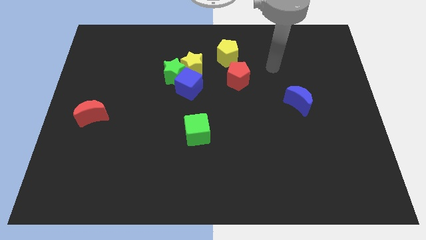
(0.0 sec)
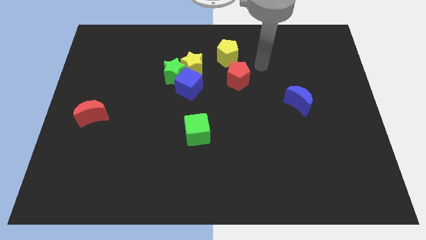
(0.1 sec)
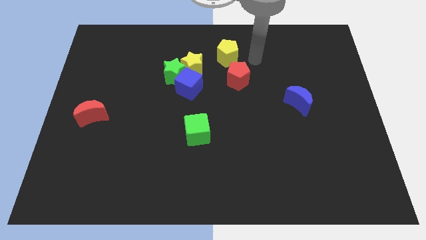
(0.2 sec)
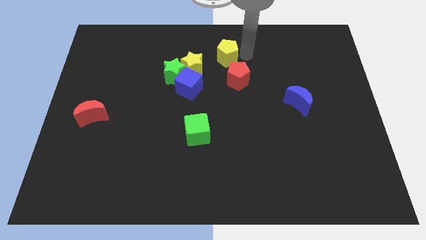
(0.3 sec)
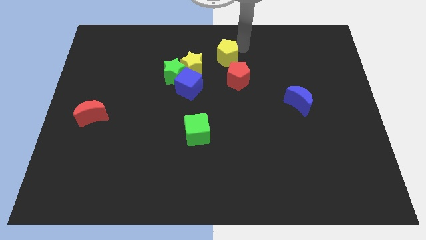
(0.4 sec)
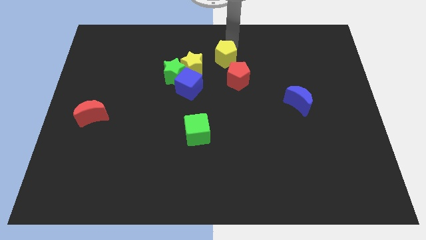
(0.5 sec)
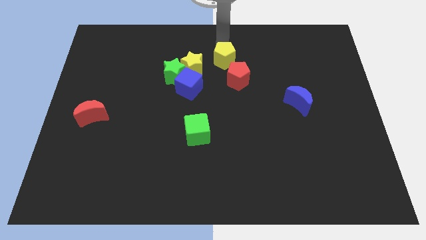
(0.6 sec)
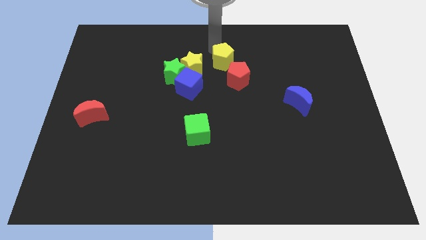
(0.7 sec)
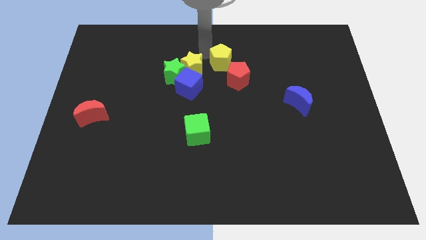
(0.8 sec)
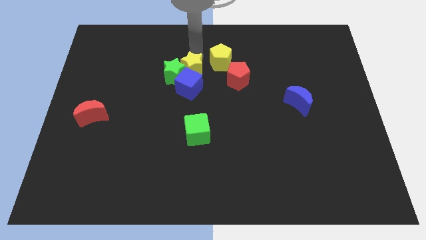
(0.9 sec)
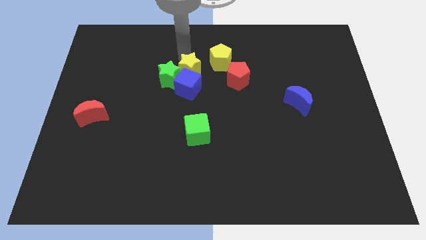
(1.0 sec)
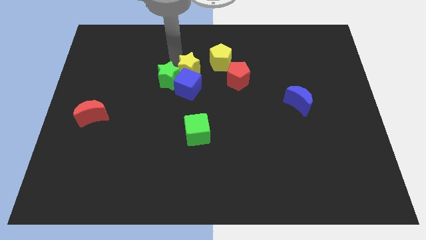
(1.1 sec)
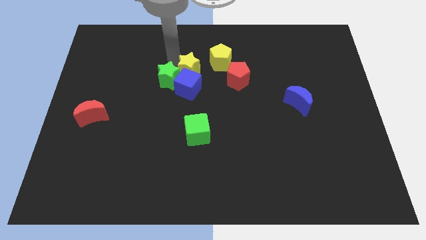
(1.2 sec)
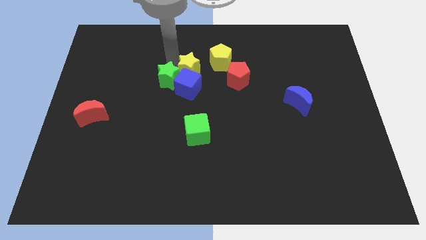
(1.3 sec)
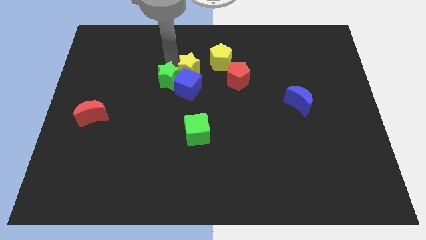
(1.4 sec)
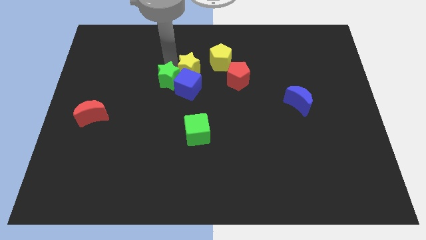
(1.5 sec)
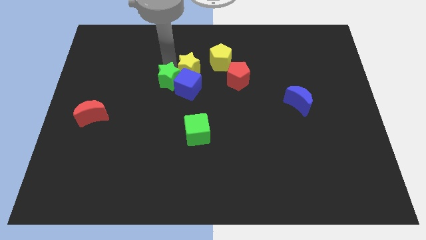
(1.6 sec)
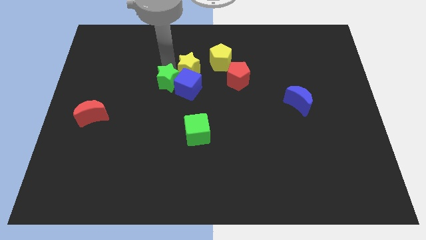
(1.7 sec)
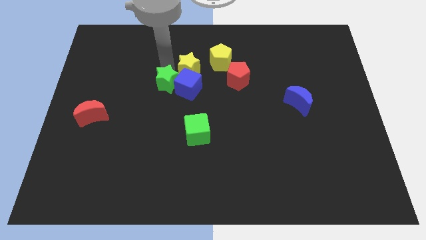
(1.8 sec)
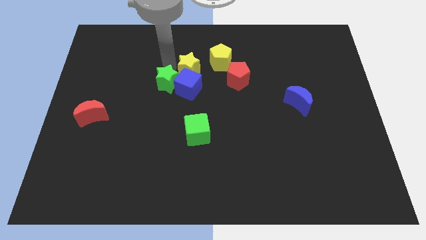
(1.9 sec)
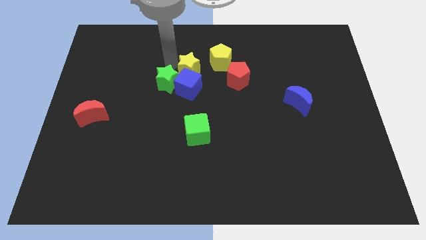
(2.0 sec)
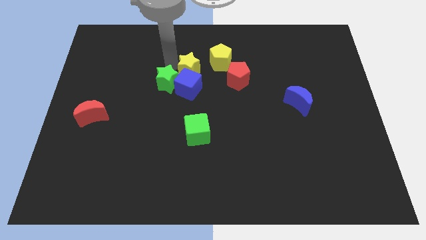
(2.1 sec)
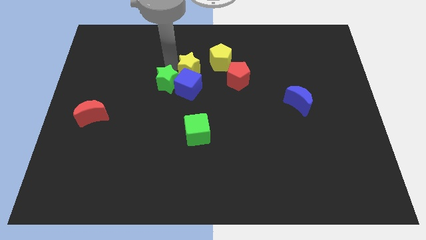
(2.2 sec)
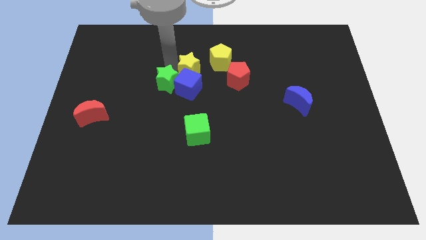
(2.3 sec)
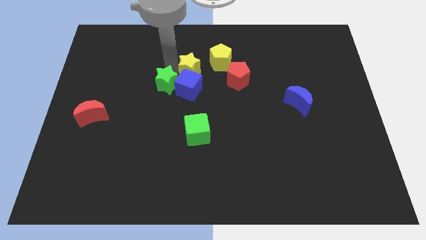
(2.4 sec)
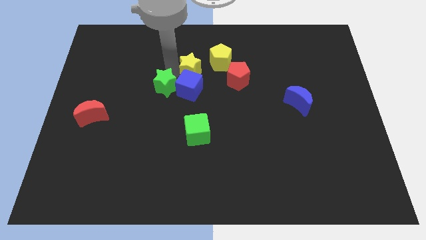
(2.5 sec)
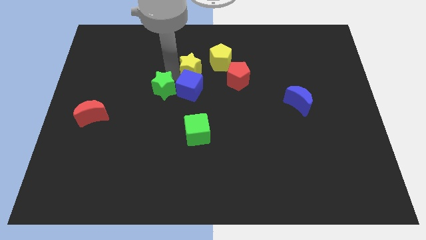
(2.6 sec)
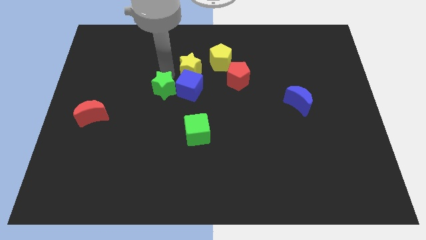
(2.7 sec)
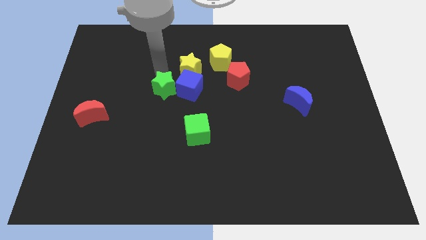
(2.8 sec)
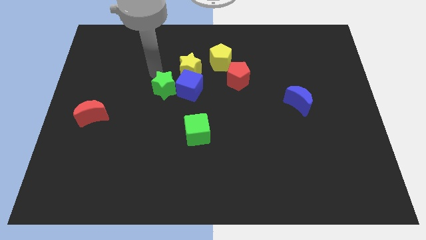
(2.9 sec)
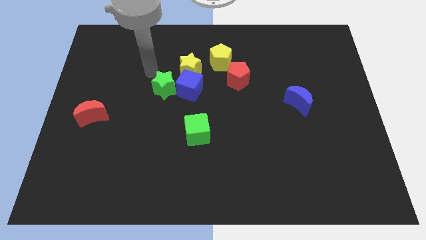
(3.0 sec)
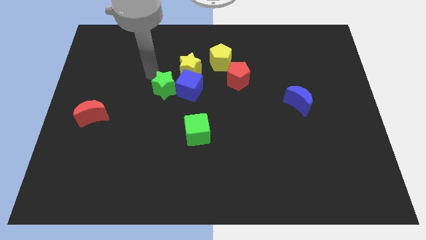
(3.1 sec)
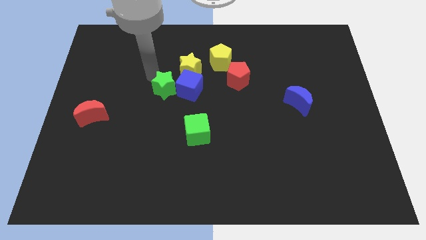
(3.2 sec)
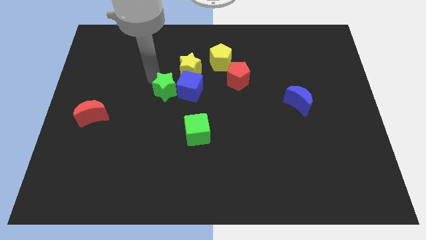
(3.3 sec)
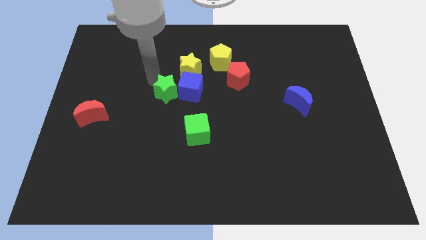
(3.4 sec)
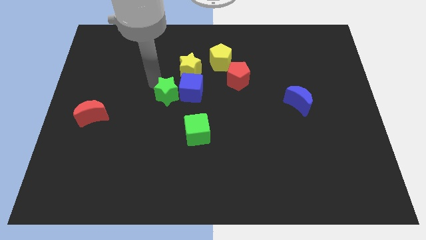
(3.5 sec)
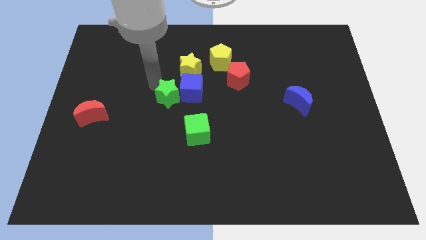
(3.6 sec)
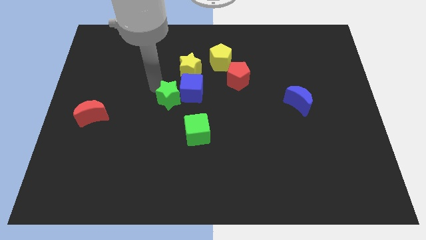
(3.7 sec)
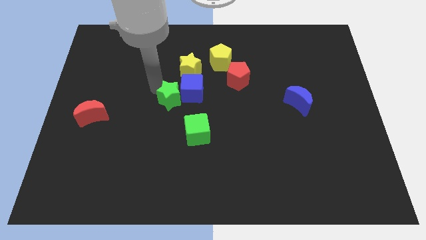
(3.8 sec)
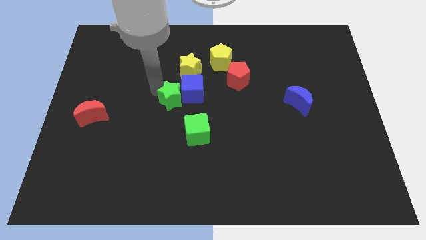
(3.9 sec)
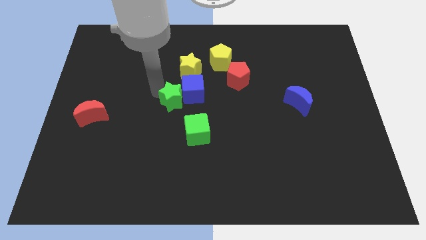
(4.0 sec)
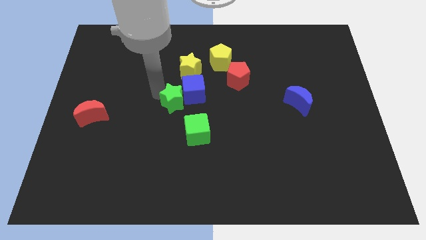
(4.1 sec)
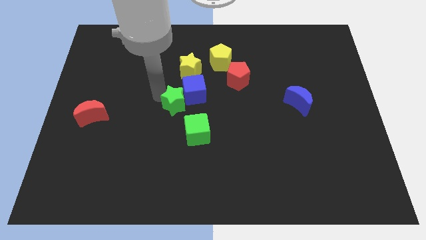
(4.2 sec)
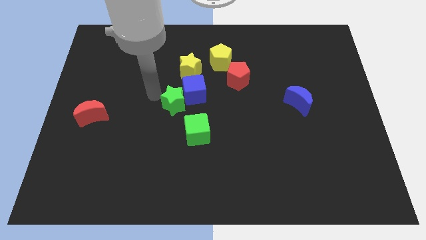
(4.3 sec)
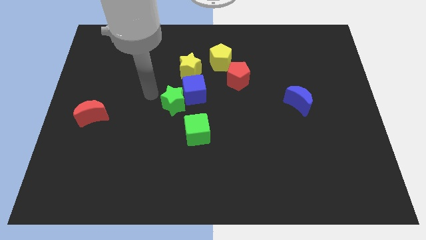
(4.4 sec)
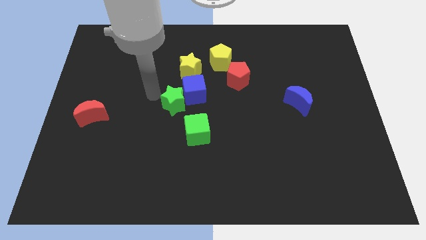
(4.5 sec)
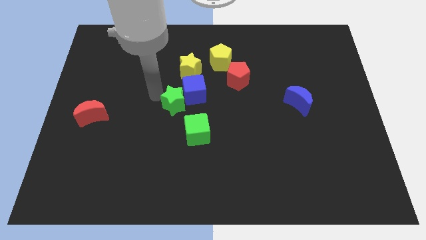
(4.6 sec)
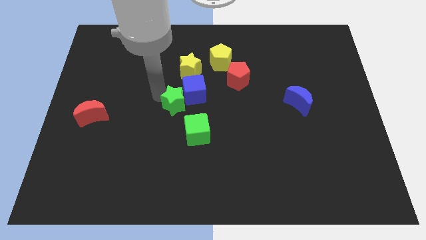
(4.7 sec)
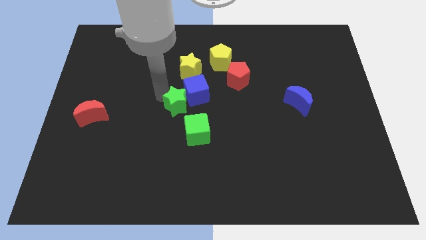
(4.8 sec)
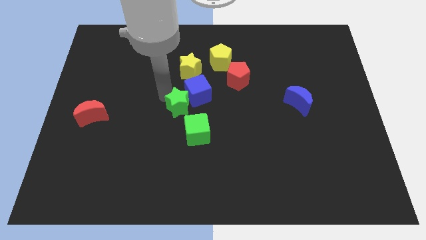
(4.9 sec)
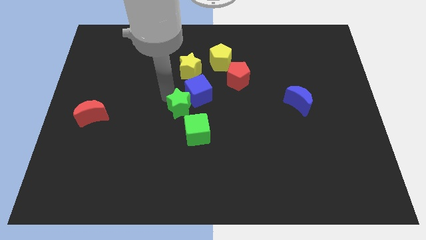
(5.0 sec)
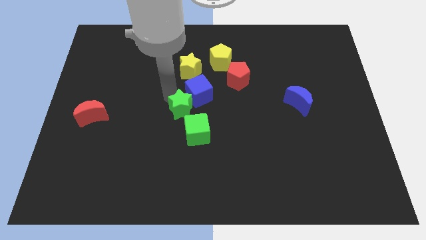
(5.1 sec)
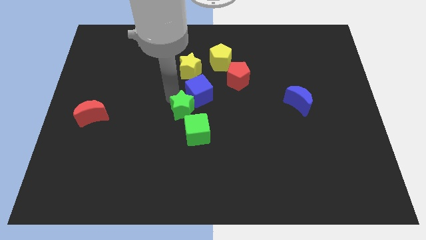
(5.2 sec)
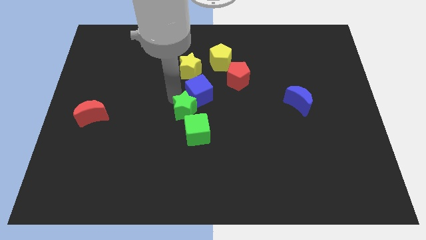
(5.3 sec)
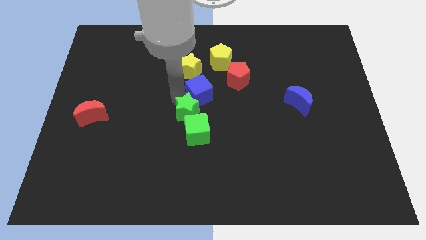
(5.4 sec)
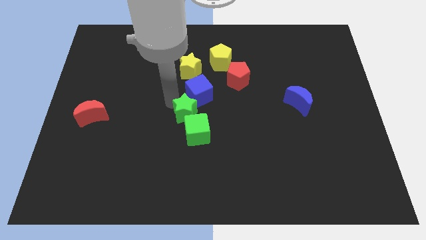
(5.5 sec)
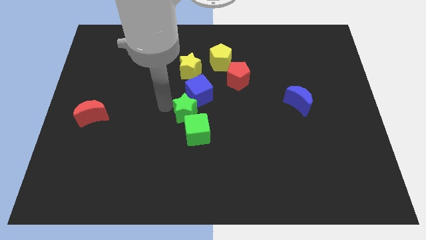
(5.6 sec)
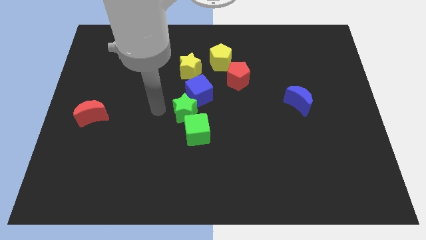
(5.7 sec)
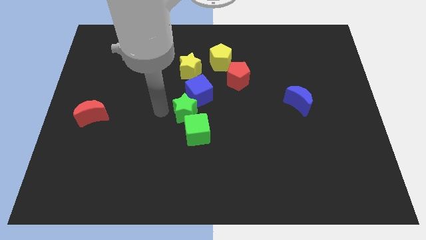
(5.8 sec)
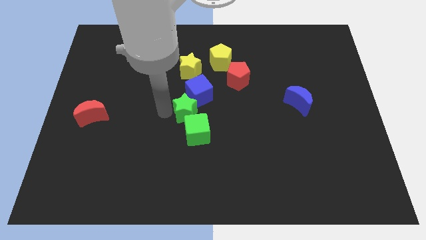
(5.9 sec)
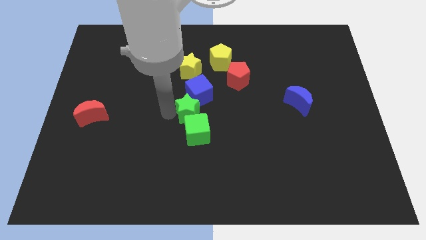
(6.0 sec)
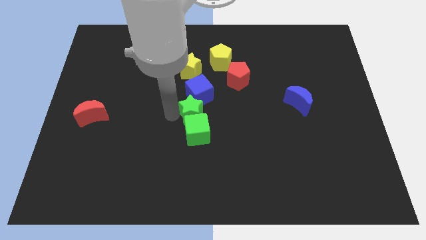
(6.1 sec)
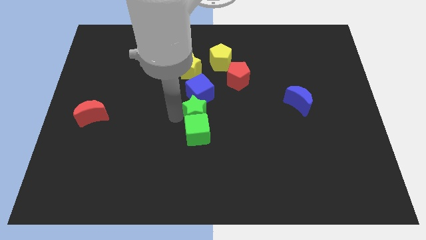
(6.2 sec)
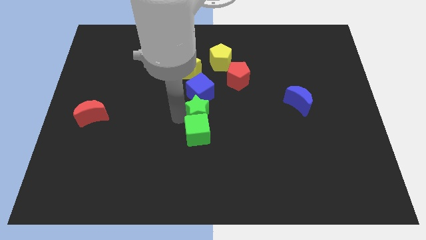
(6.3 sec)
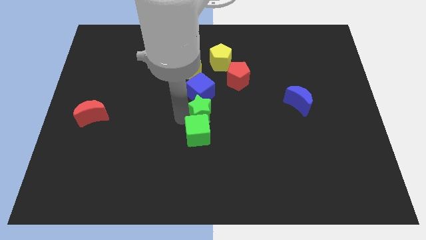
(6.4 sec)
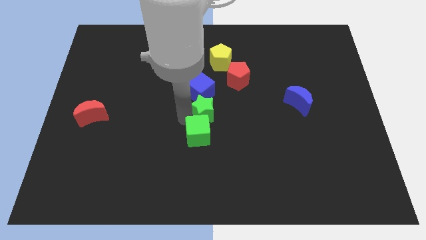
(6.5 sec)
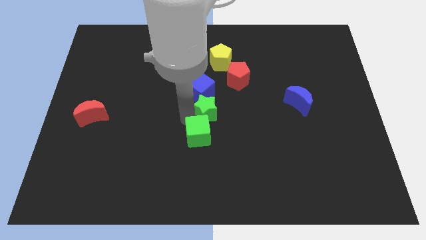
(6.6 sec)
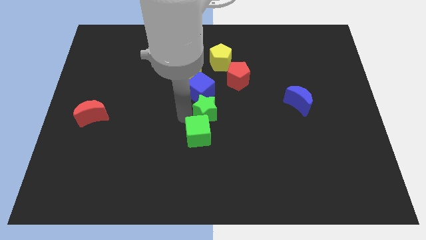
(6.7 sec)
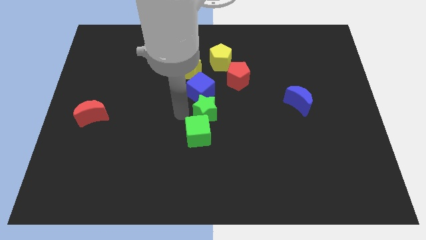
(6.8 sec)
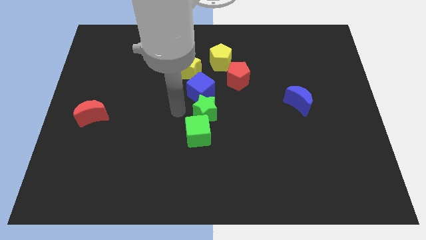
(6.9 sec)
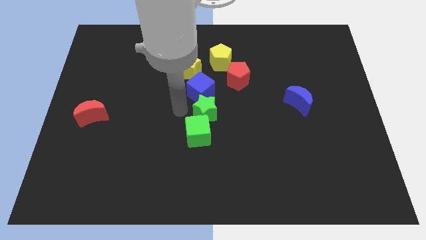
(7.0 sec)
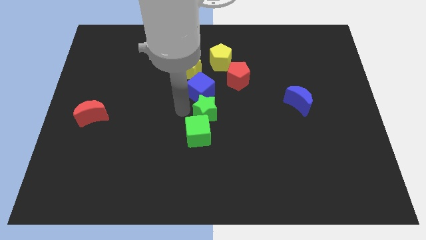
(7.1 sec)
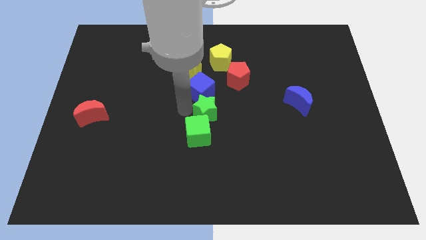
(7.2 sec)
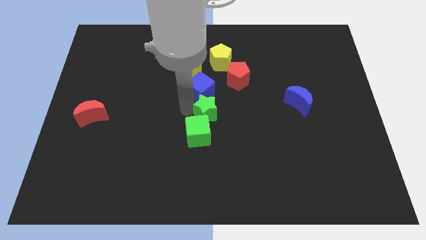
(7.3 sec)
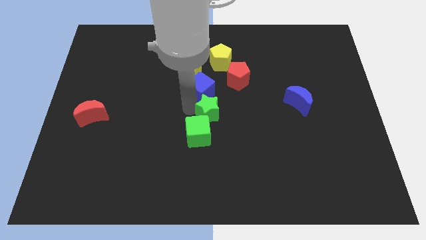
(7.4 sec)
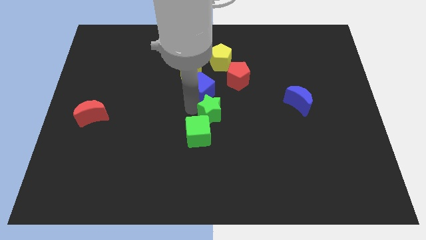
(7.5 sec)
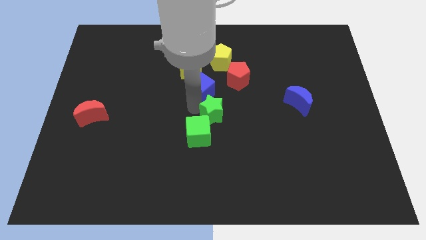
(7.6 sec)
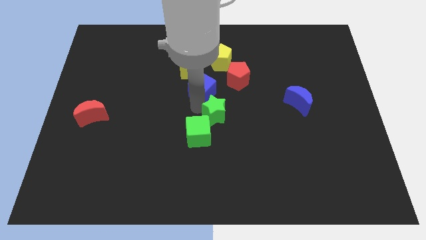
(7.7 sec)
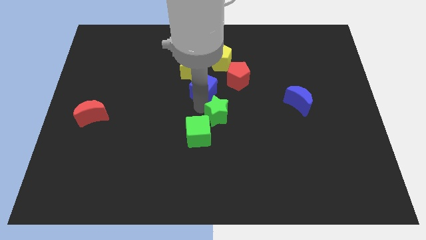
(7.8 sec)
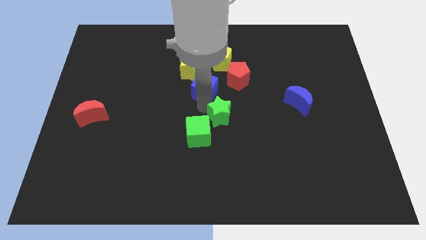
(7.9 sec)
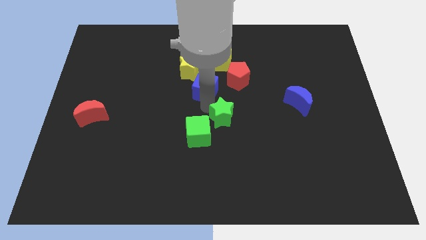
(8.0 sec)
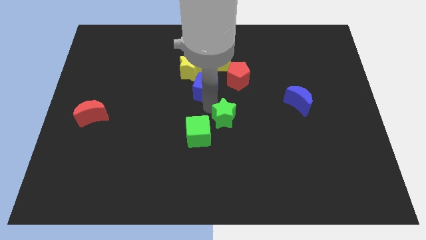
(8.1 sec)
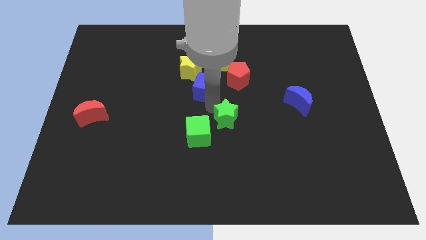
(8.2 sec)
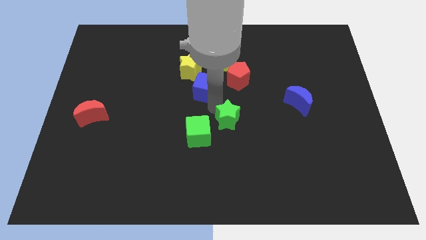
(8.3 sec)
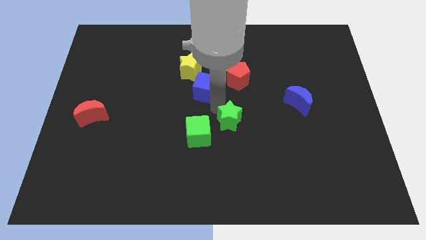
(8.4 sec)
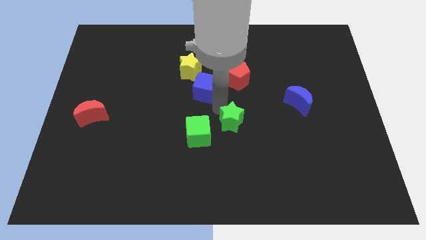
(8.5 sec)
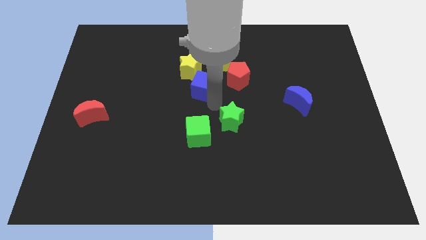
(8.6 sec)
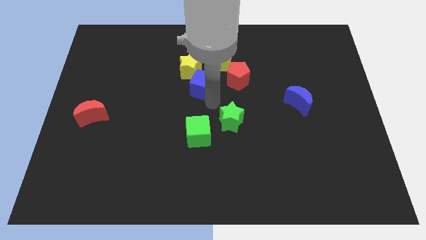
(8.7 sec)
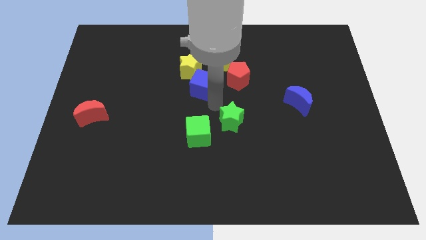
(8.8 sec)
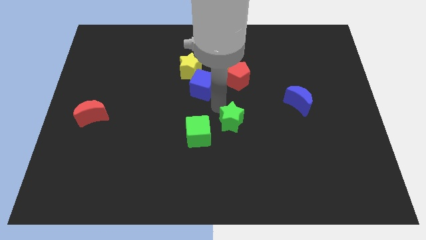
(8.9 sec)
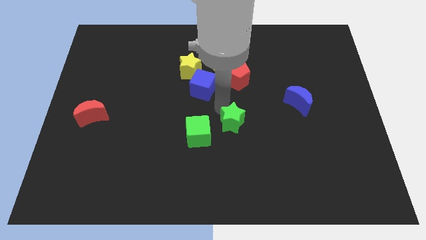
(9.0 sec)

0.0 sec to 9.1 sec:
move the green star downwards and then to the right
